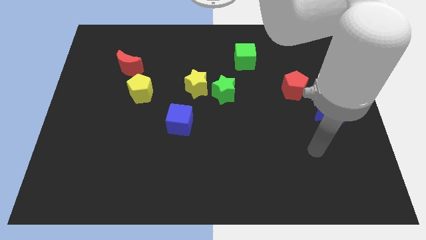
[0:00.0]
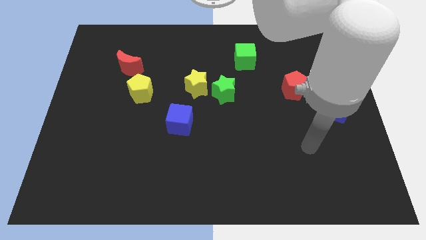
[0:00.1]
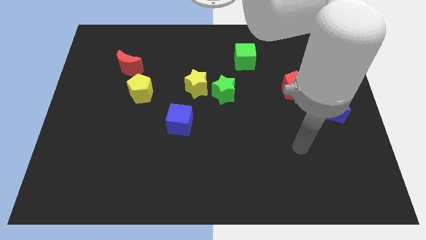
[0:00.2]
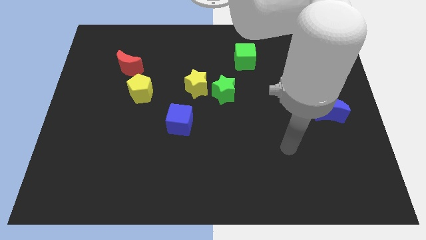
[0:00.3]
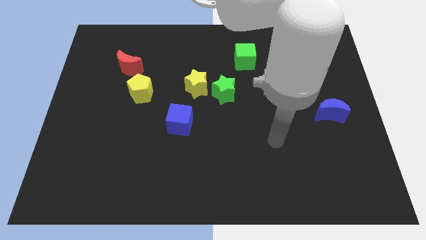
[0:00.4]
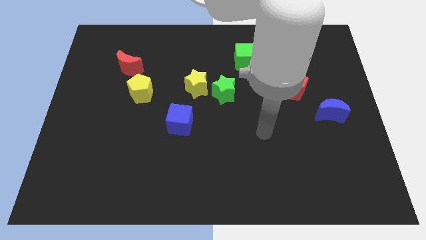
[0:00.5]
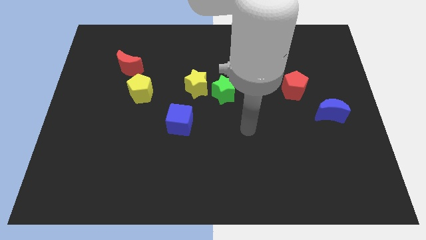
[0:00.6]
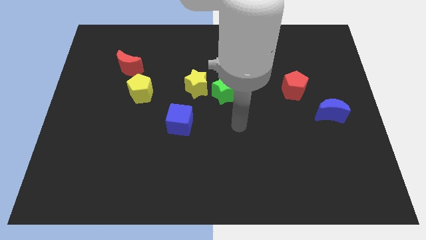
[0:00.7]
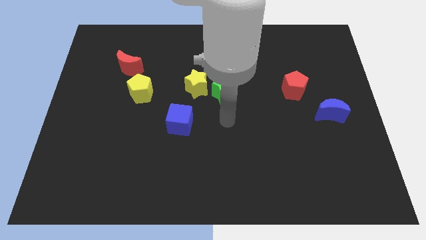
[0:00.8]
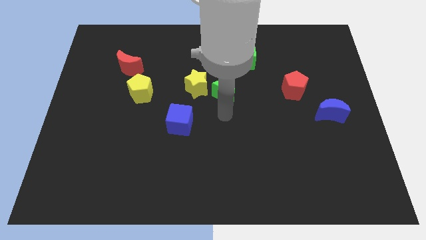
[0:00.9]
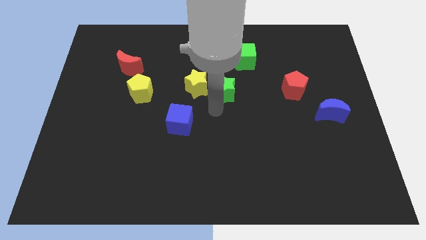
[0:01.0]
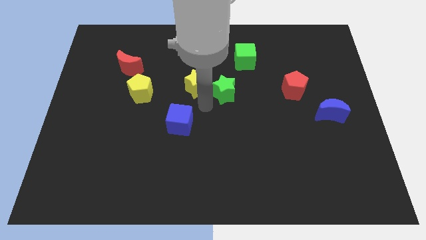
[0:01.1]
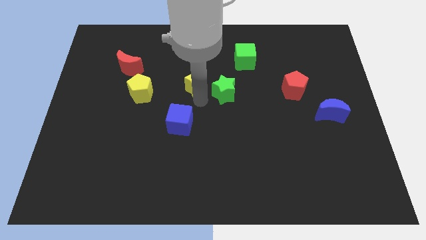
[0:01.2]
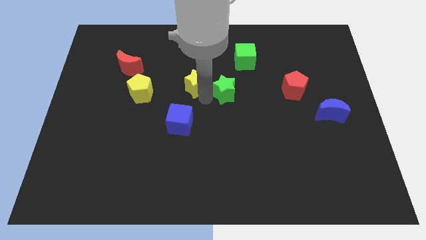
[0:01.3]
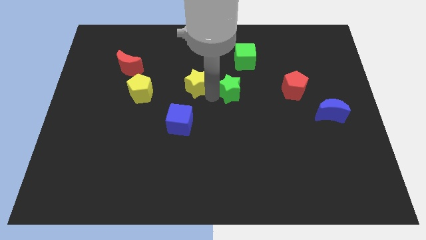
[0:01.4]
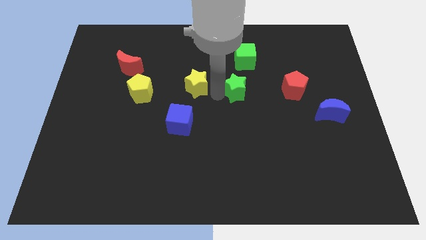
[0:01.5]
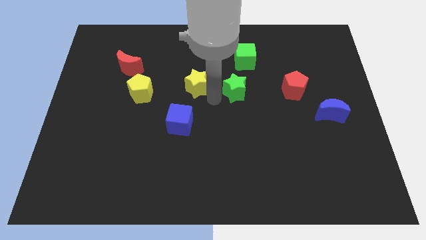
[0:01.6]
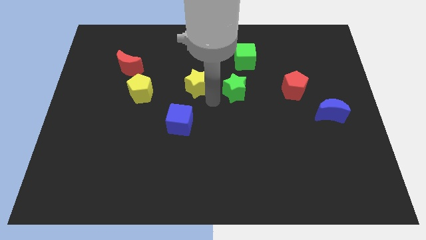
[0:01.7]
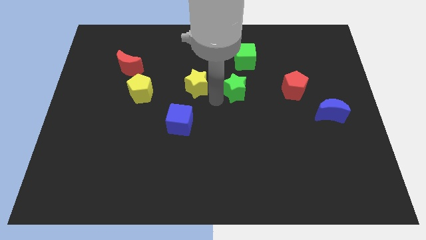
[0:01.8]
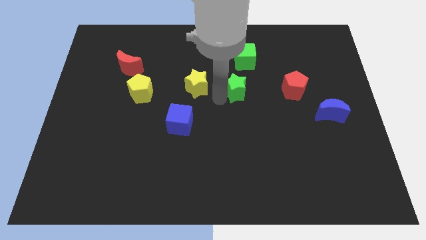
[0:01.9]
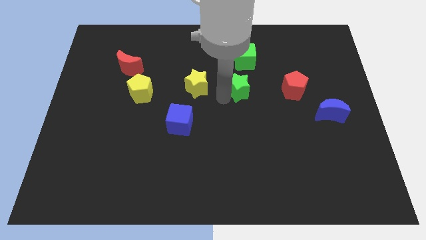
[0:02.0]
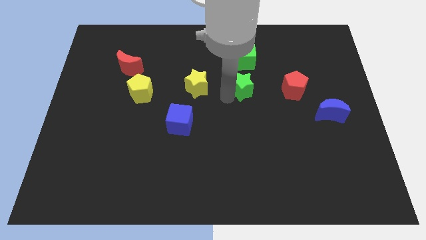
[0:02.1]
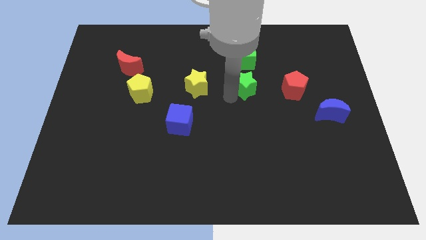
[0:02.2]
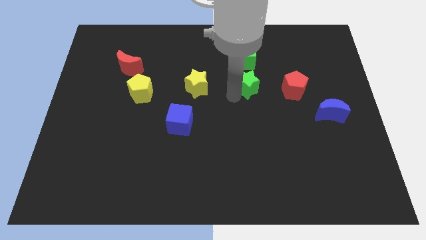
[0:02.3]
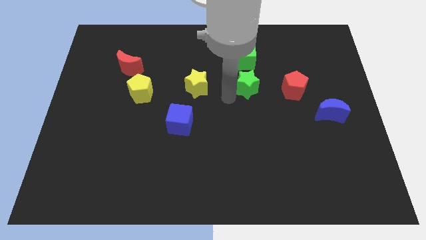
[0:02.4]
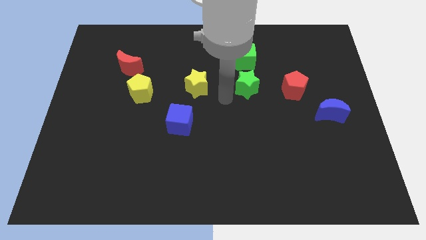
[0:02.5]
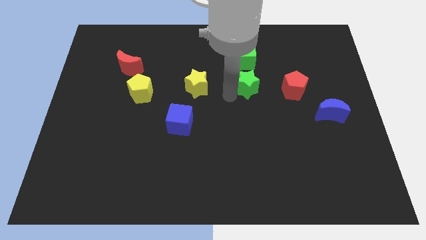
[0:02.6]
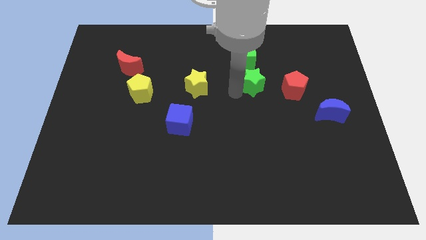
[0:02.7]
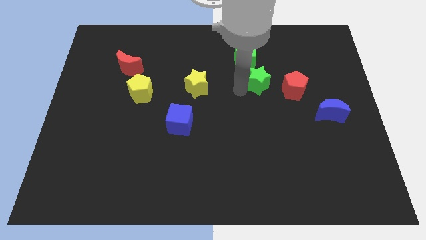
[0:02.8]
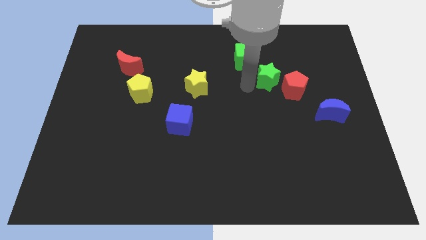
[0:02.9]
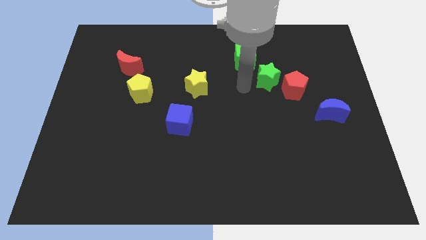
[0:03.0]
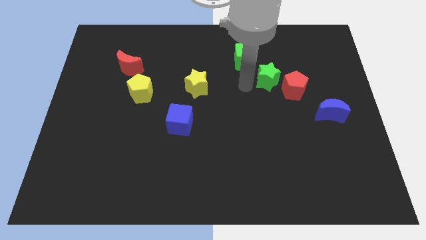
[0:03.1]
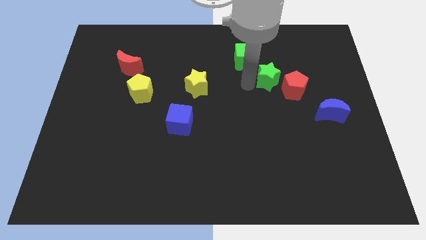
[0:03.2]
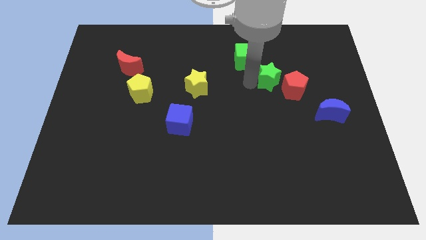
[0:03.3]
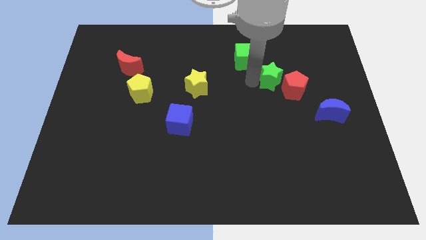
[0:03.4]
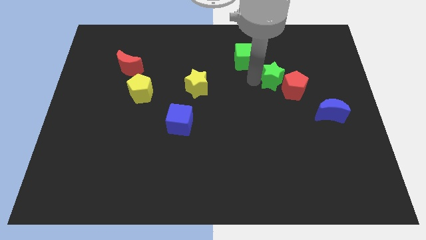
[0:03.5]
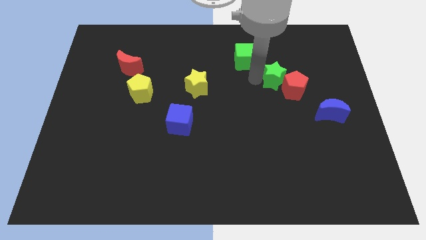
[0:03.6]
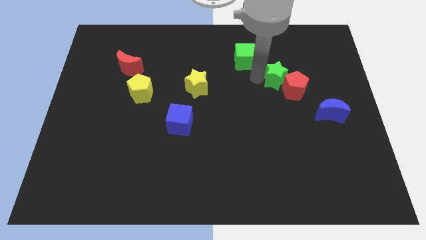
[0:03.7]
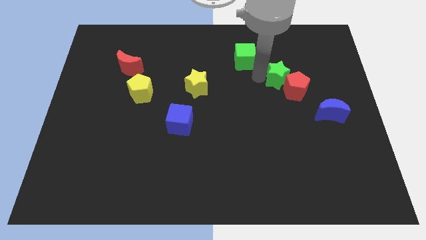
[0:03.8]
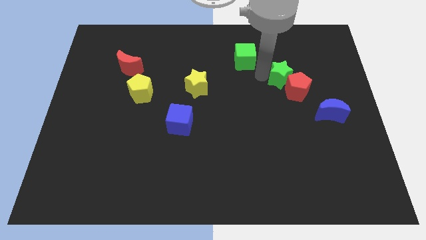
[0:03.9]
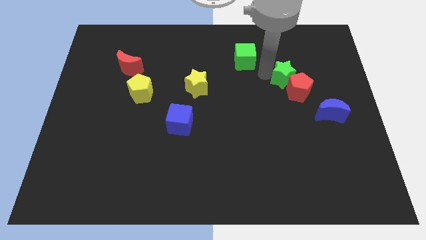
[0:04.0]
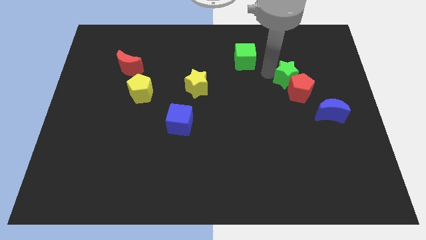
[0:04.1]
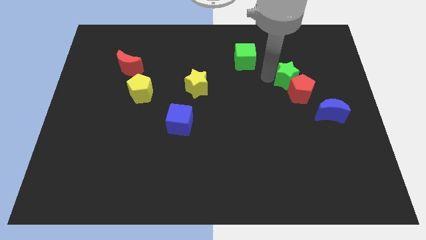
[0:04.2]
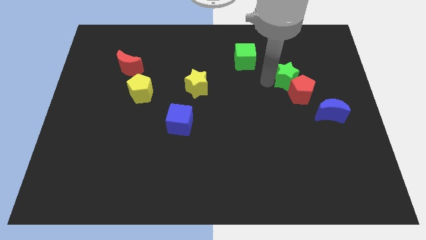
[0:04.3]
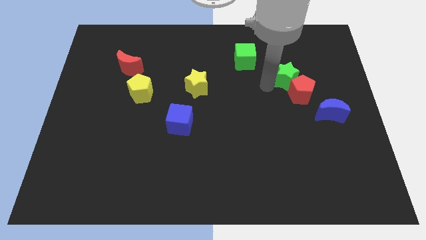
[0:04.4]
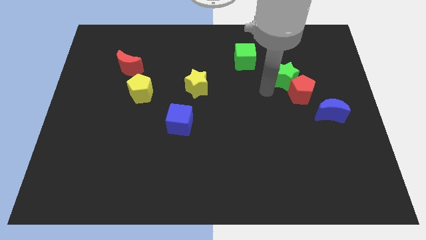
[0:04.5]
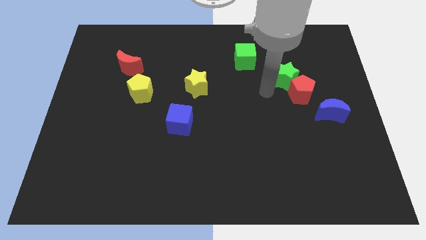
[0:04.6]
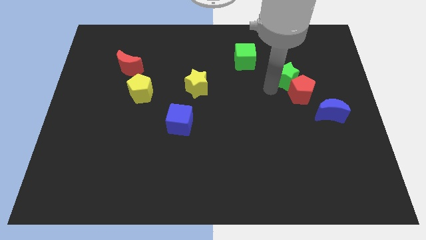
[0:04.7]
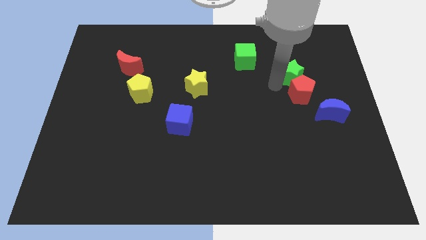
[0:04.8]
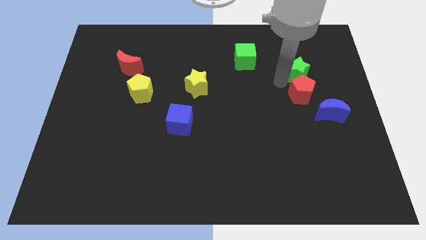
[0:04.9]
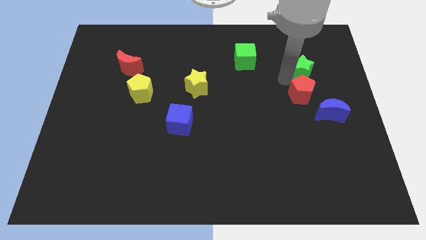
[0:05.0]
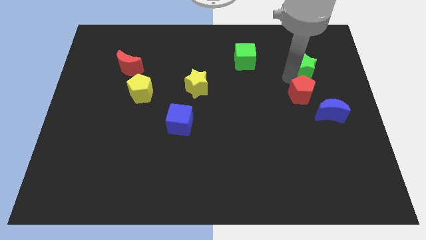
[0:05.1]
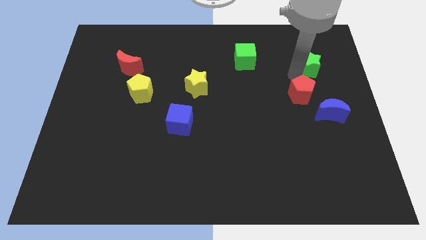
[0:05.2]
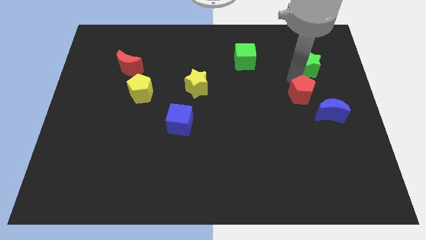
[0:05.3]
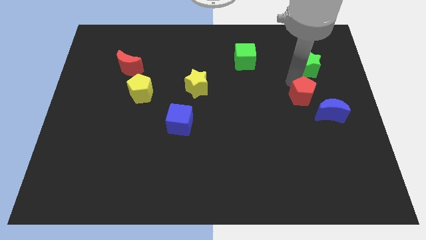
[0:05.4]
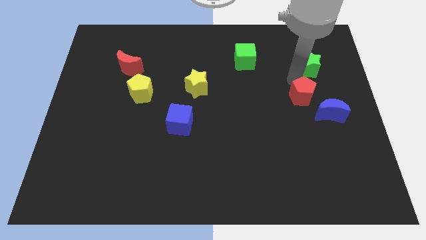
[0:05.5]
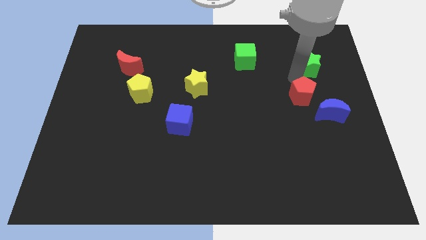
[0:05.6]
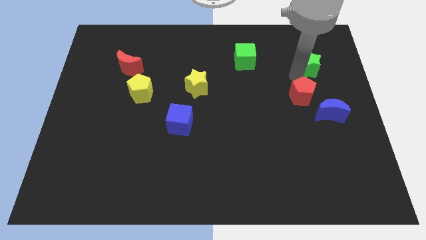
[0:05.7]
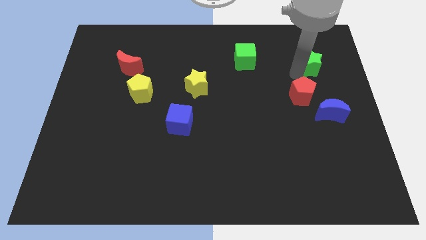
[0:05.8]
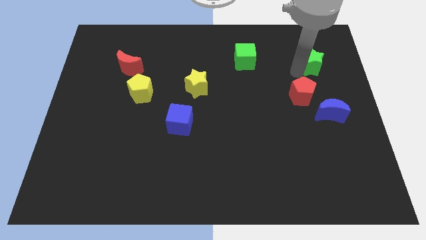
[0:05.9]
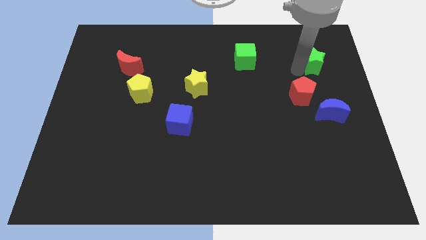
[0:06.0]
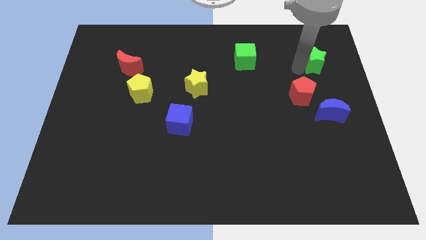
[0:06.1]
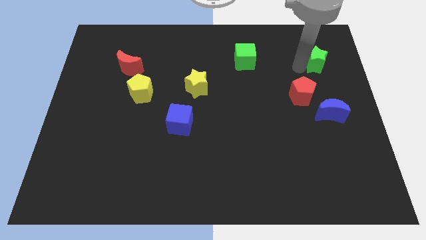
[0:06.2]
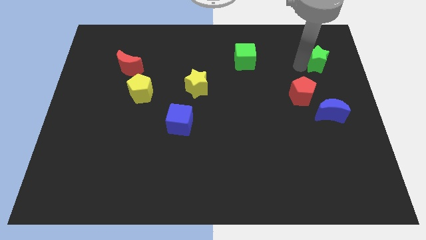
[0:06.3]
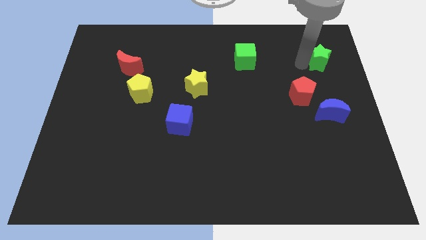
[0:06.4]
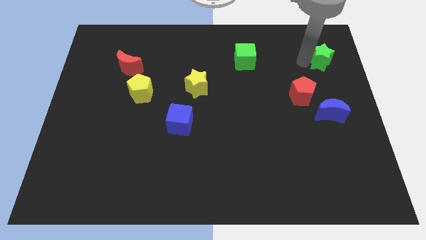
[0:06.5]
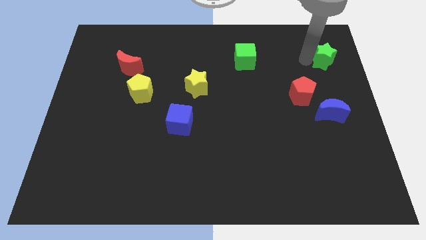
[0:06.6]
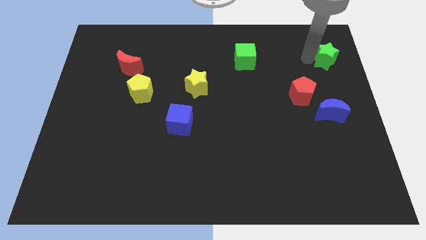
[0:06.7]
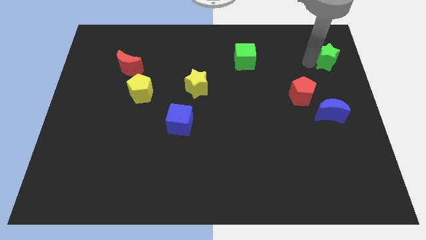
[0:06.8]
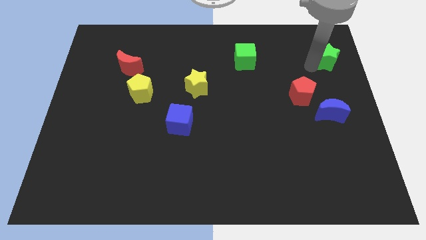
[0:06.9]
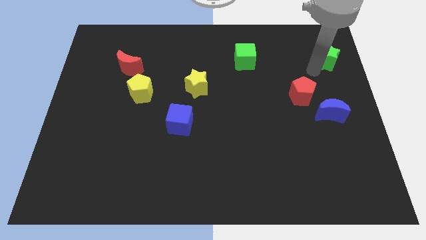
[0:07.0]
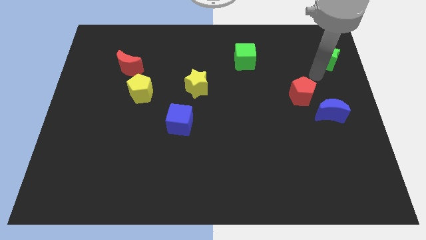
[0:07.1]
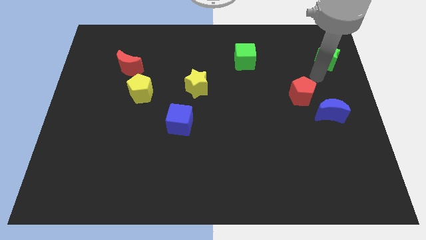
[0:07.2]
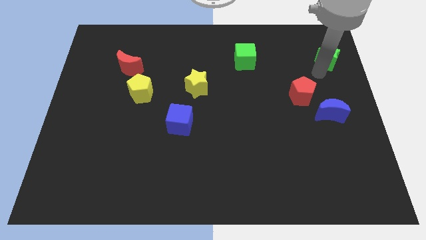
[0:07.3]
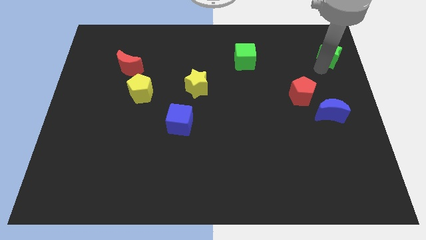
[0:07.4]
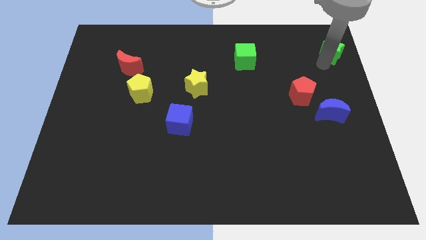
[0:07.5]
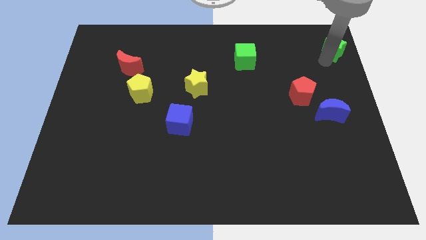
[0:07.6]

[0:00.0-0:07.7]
slide the green star to the upper right corner
